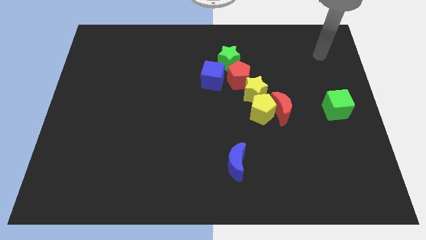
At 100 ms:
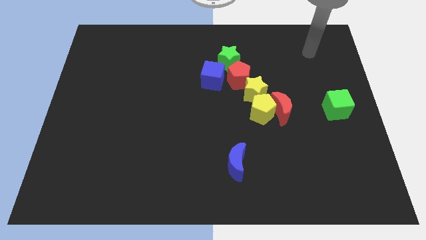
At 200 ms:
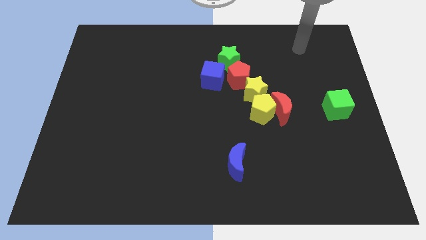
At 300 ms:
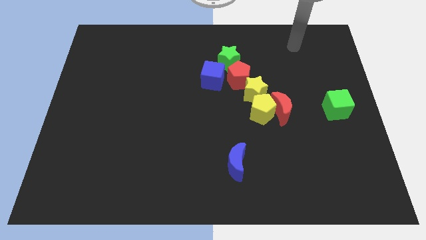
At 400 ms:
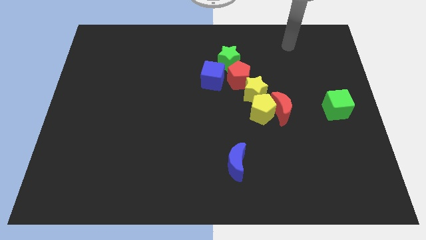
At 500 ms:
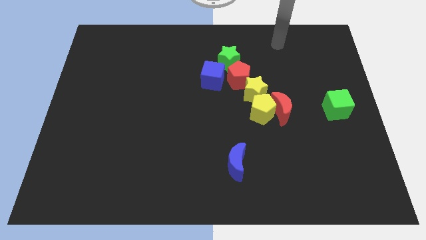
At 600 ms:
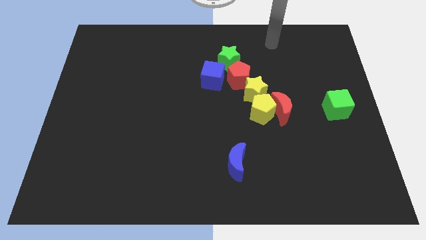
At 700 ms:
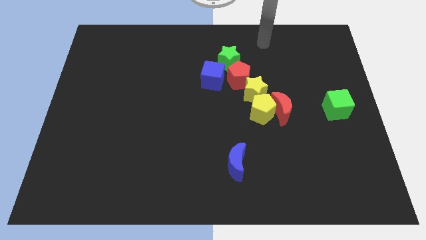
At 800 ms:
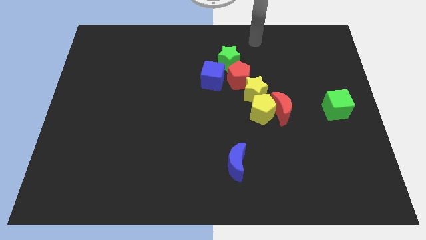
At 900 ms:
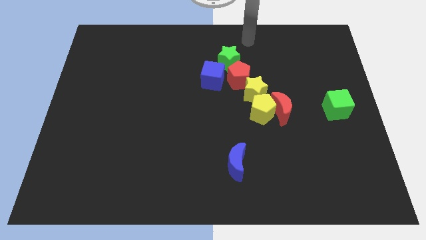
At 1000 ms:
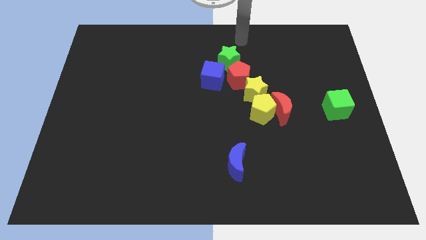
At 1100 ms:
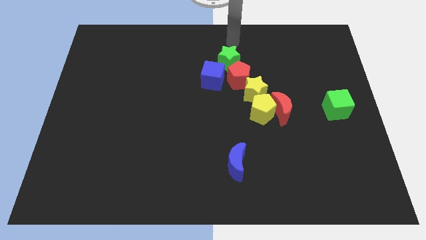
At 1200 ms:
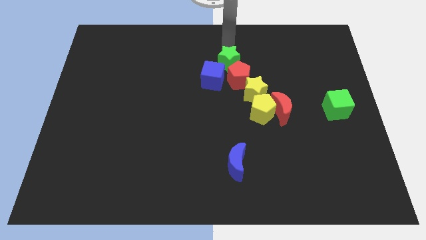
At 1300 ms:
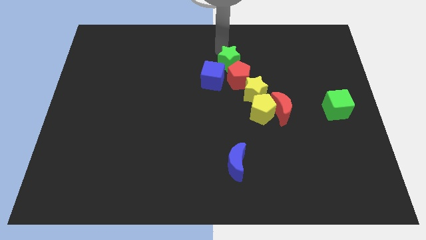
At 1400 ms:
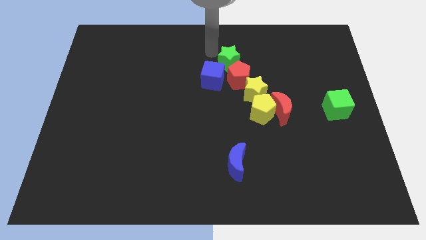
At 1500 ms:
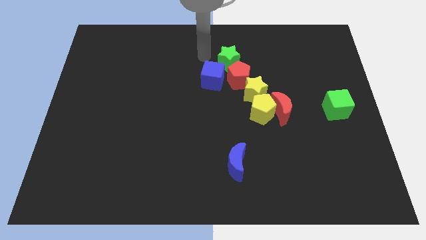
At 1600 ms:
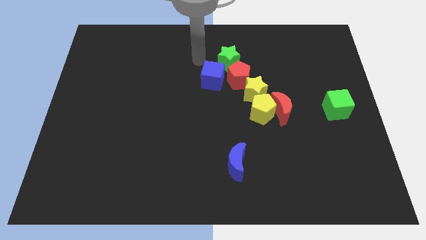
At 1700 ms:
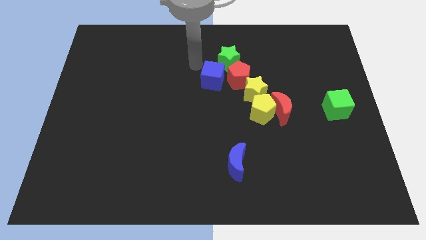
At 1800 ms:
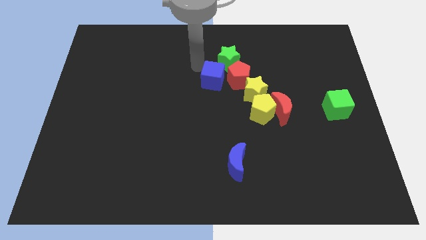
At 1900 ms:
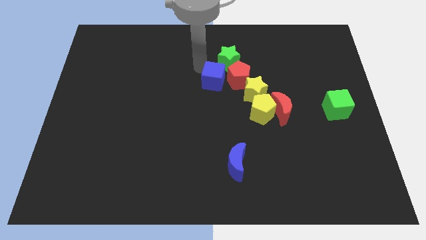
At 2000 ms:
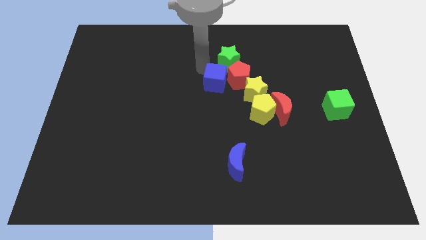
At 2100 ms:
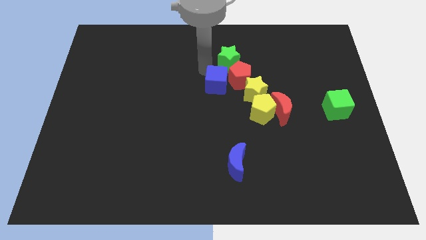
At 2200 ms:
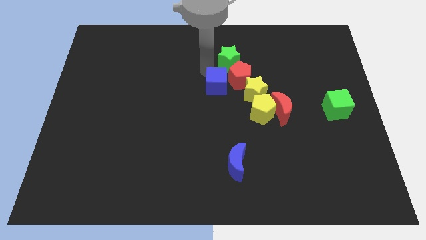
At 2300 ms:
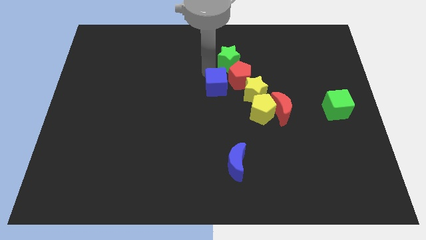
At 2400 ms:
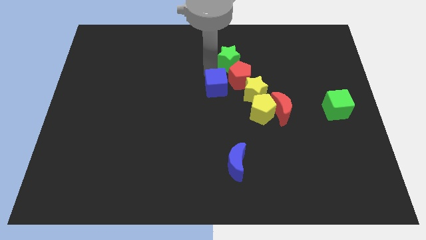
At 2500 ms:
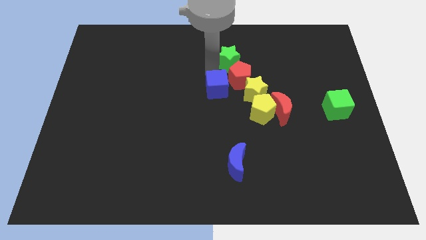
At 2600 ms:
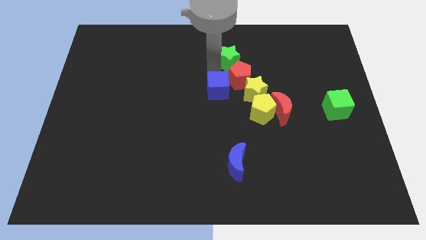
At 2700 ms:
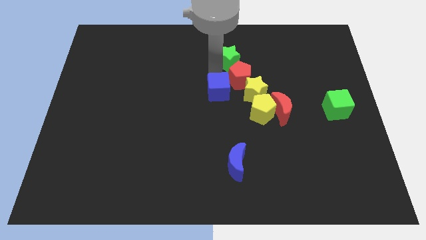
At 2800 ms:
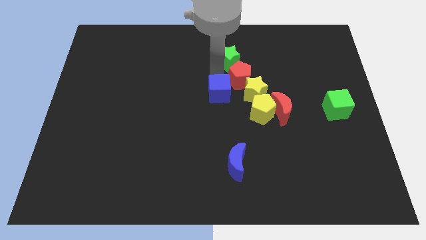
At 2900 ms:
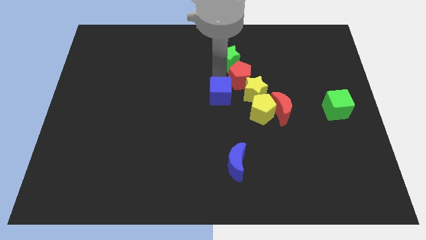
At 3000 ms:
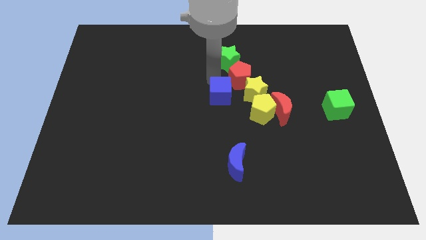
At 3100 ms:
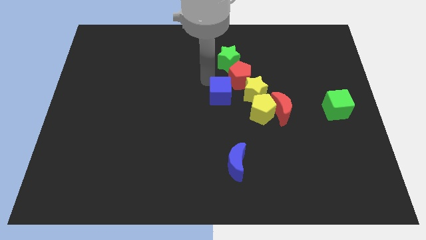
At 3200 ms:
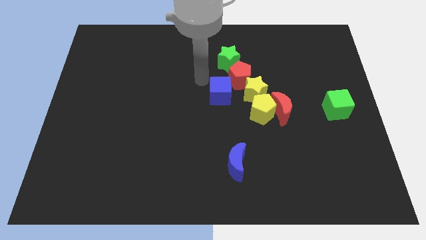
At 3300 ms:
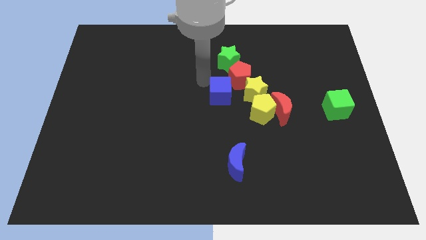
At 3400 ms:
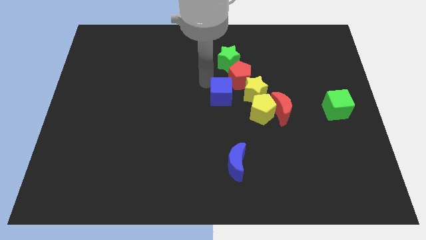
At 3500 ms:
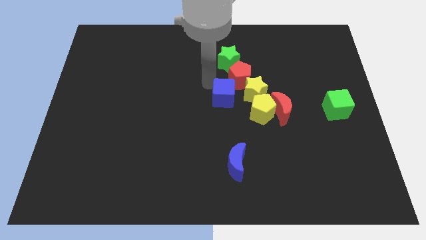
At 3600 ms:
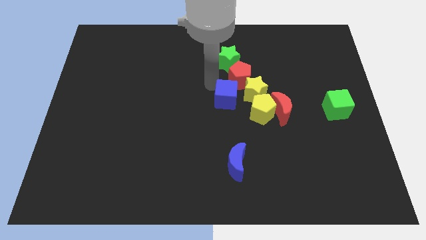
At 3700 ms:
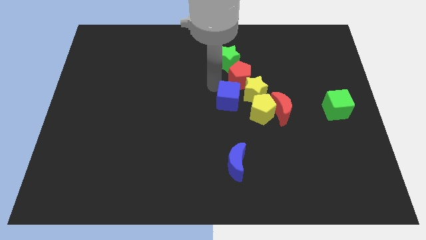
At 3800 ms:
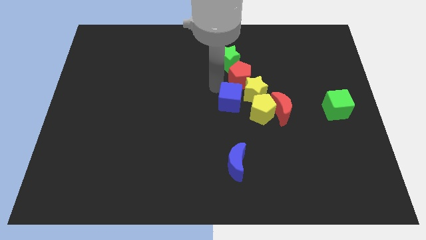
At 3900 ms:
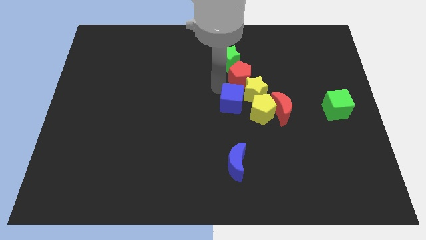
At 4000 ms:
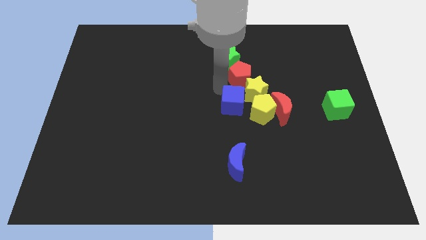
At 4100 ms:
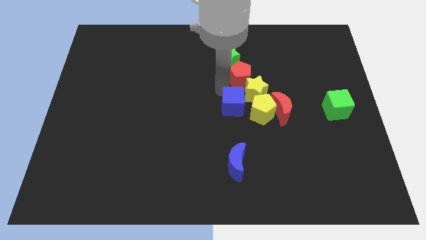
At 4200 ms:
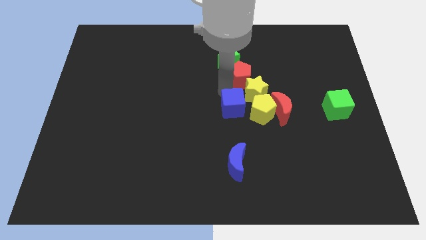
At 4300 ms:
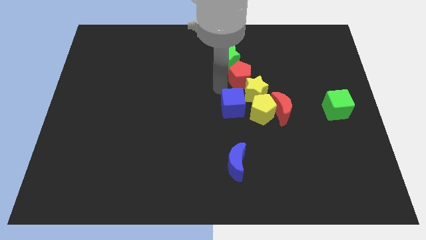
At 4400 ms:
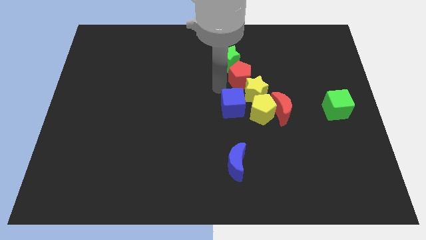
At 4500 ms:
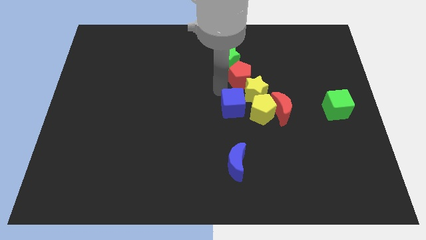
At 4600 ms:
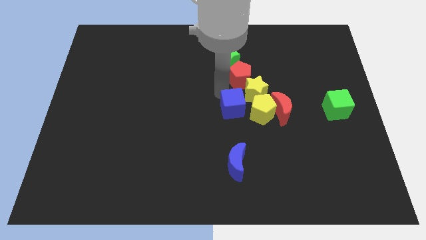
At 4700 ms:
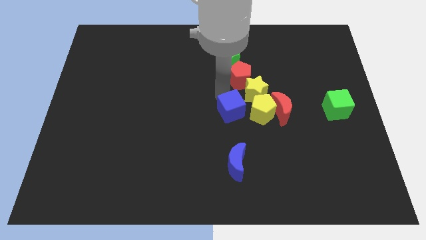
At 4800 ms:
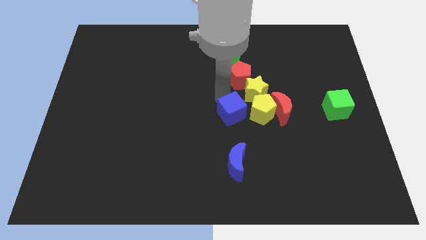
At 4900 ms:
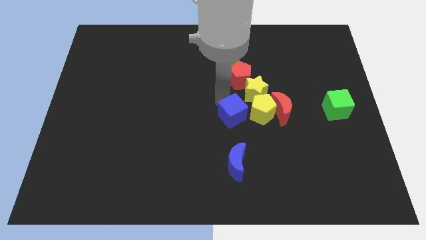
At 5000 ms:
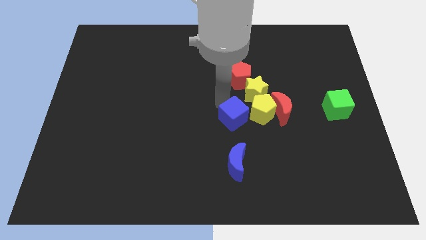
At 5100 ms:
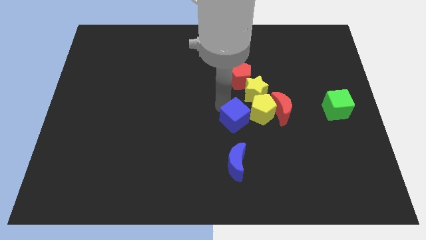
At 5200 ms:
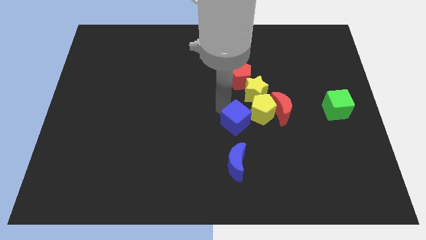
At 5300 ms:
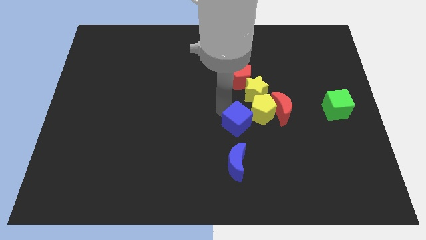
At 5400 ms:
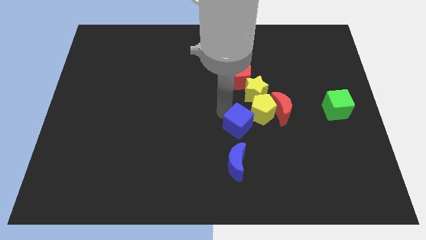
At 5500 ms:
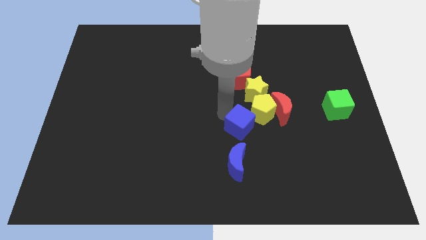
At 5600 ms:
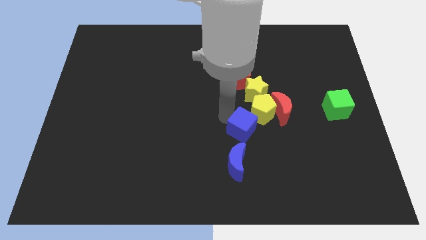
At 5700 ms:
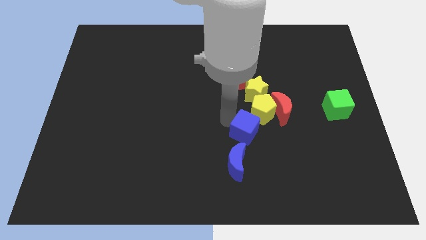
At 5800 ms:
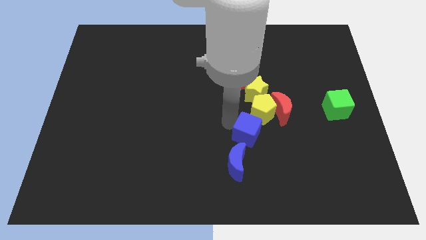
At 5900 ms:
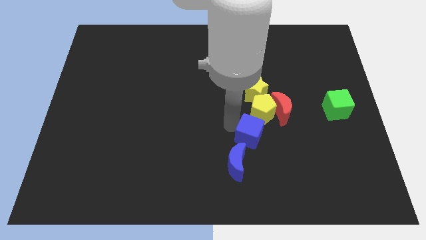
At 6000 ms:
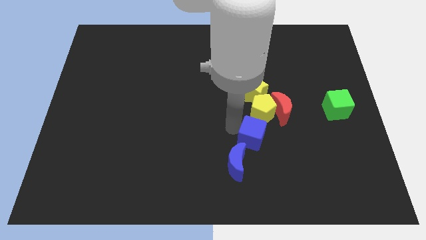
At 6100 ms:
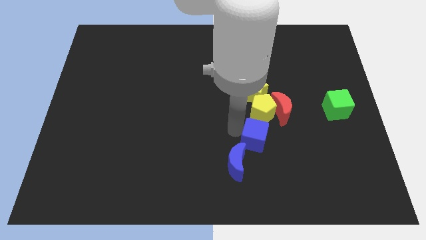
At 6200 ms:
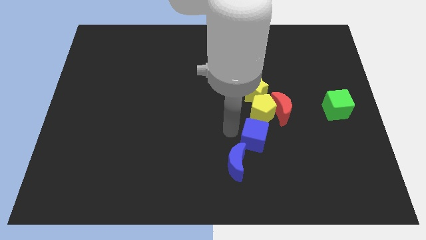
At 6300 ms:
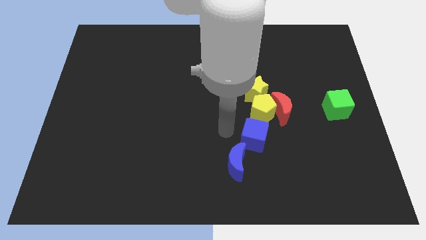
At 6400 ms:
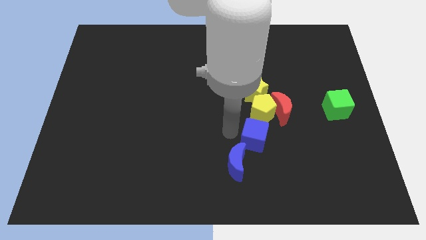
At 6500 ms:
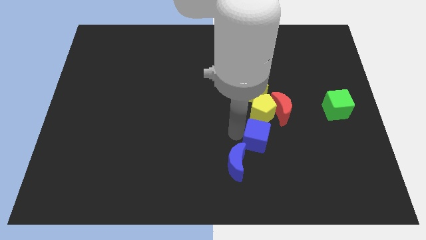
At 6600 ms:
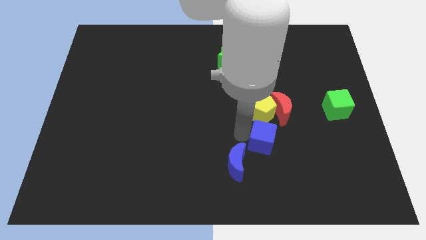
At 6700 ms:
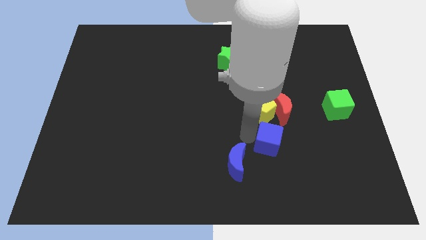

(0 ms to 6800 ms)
push the blue cube downwards and right

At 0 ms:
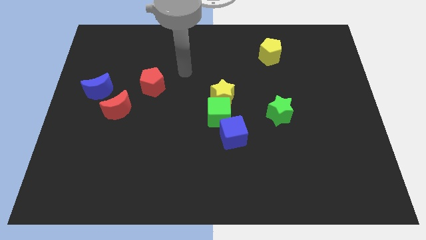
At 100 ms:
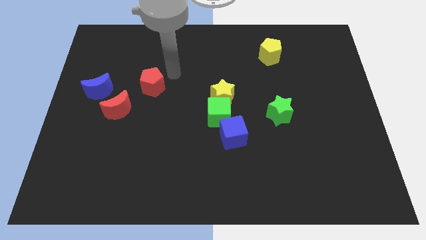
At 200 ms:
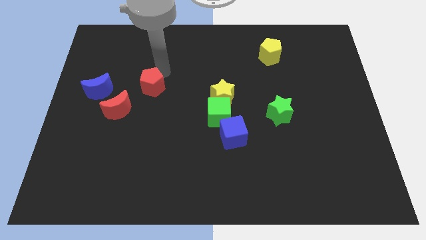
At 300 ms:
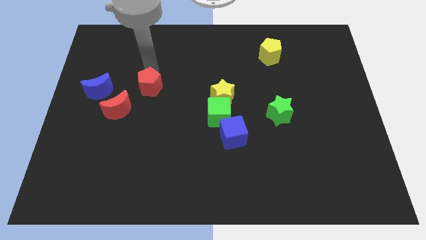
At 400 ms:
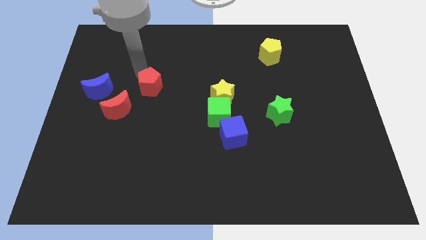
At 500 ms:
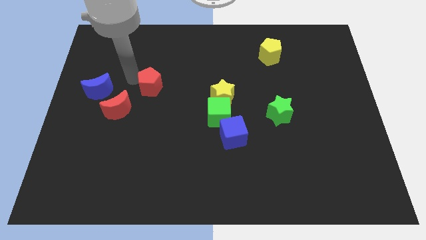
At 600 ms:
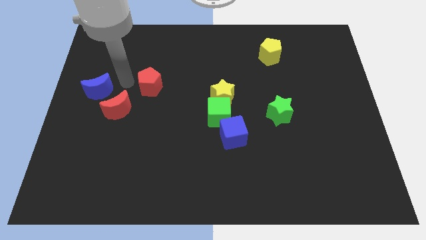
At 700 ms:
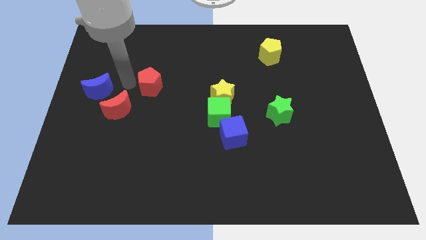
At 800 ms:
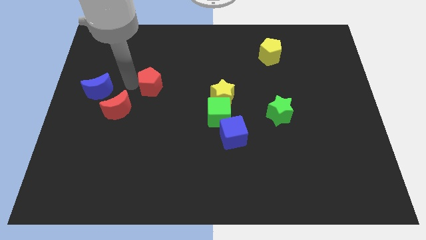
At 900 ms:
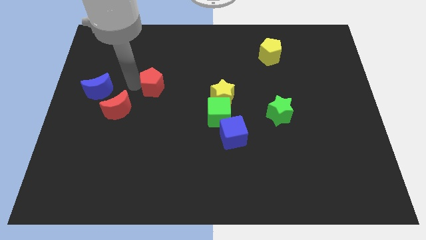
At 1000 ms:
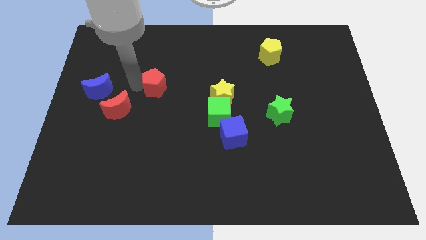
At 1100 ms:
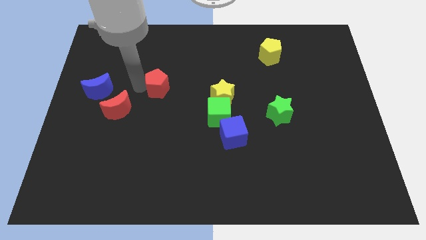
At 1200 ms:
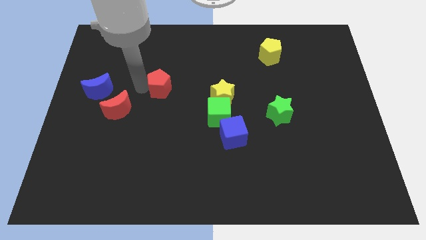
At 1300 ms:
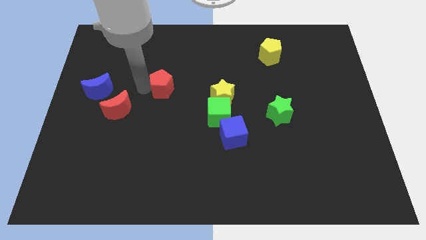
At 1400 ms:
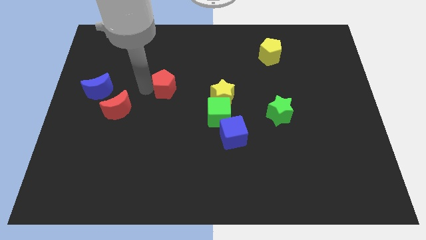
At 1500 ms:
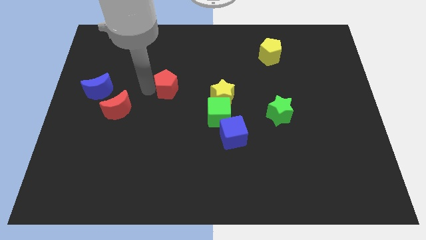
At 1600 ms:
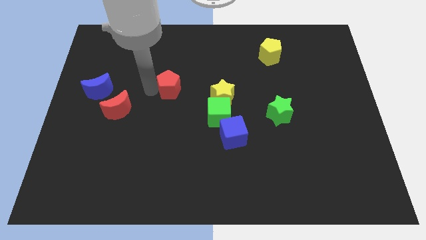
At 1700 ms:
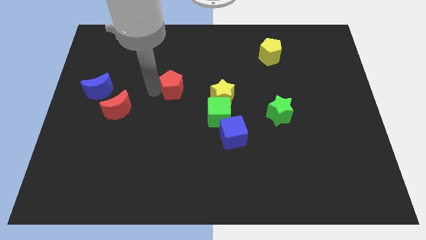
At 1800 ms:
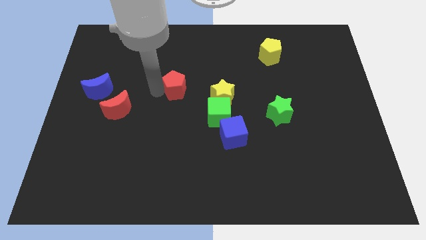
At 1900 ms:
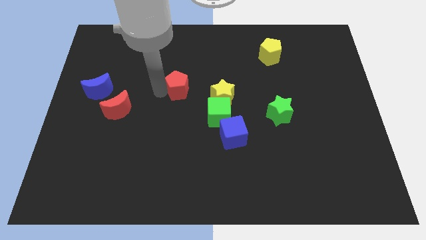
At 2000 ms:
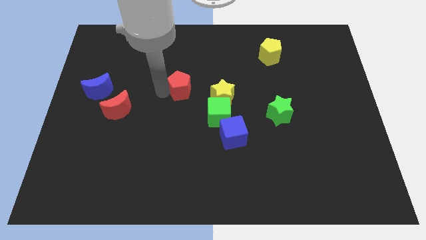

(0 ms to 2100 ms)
slide the red pentagon a little bit right
